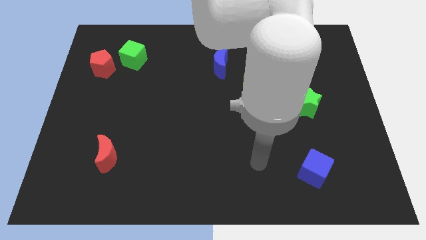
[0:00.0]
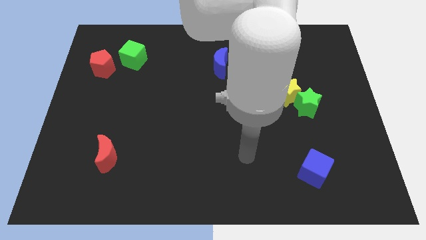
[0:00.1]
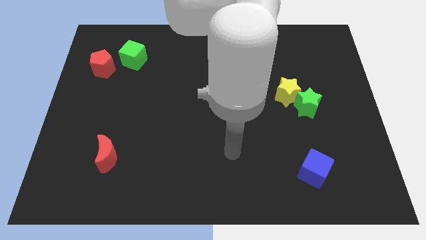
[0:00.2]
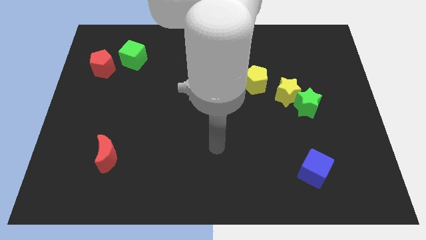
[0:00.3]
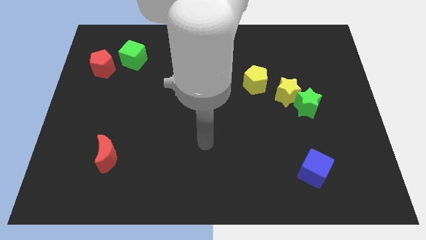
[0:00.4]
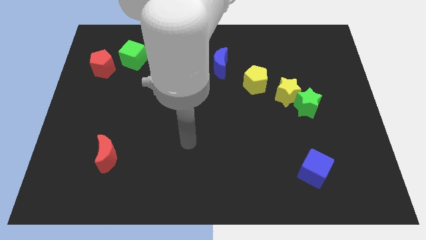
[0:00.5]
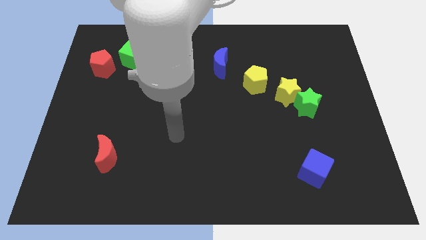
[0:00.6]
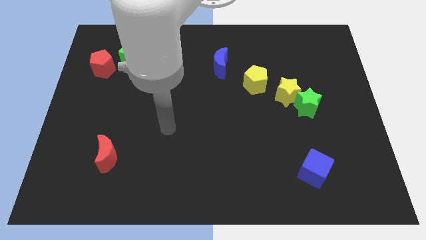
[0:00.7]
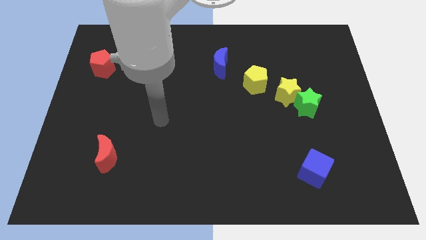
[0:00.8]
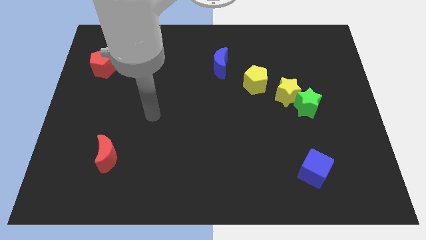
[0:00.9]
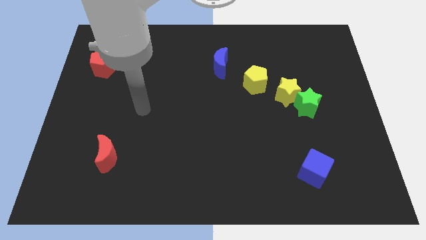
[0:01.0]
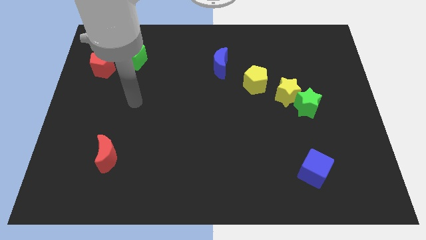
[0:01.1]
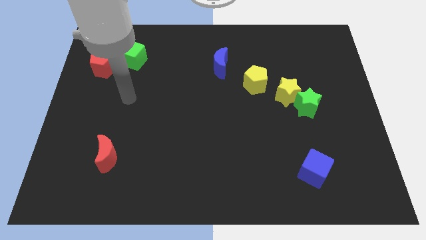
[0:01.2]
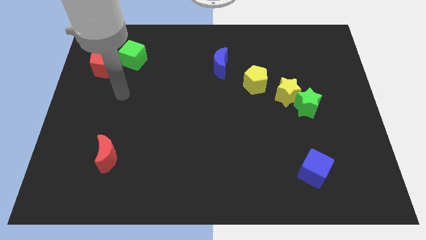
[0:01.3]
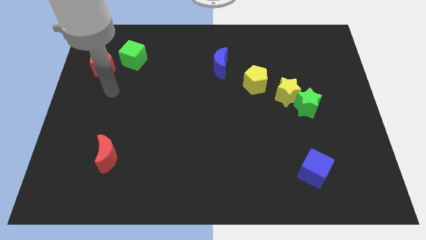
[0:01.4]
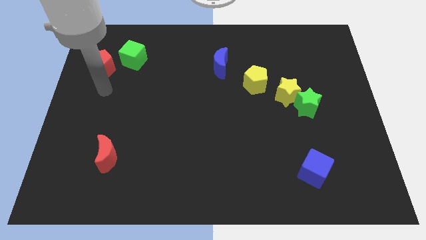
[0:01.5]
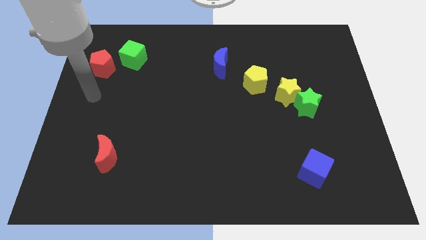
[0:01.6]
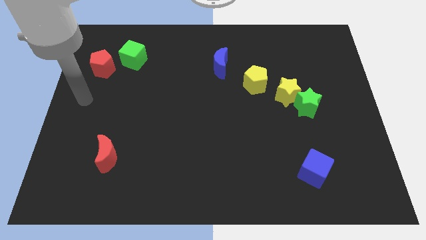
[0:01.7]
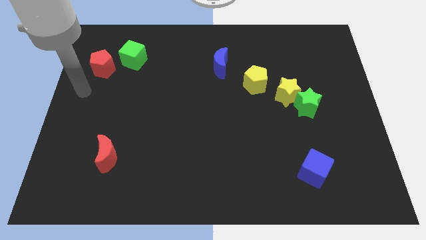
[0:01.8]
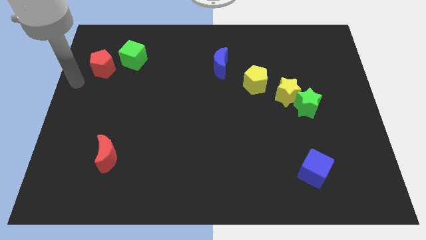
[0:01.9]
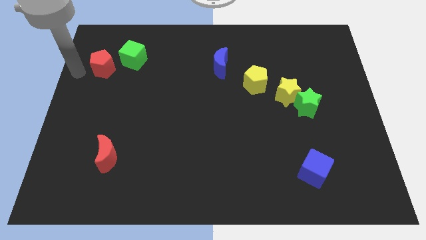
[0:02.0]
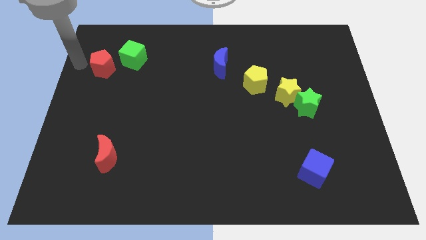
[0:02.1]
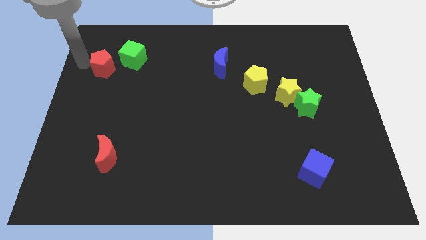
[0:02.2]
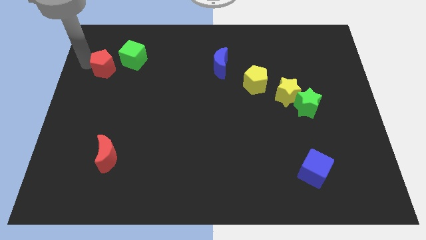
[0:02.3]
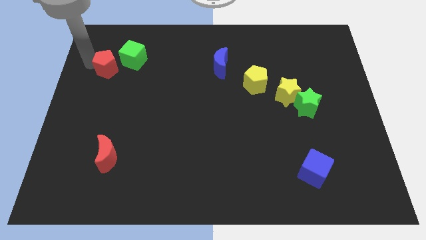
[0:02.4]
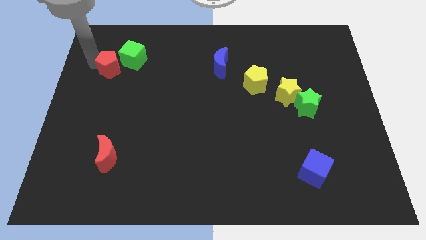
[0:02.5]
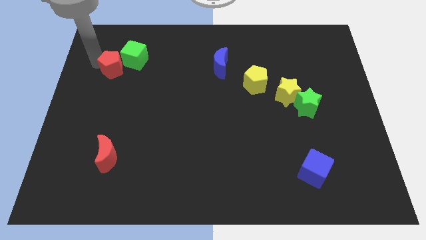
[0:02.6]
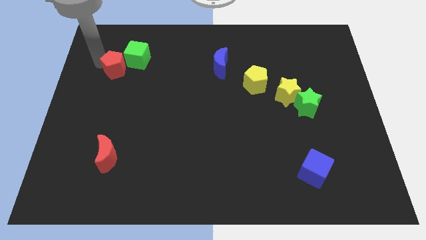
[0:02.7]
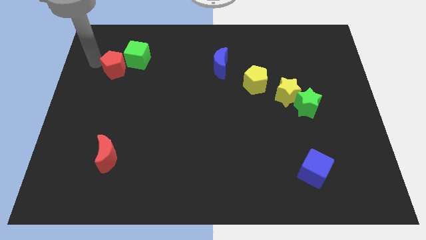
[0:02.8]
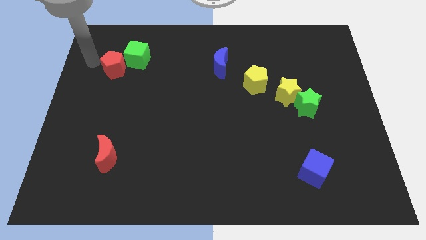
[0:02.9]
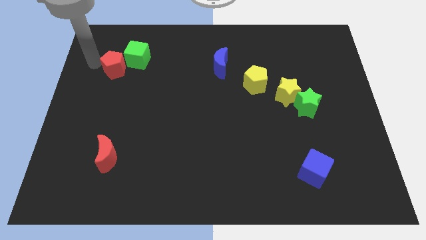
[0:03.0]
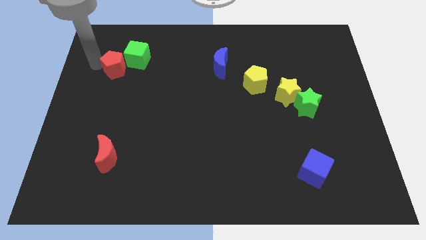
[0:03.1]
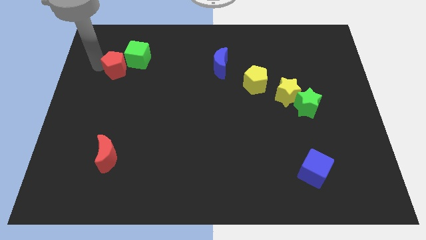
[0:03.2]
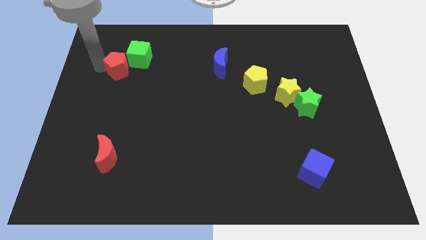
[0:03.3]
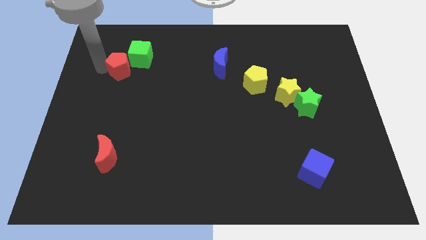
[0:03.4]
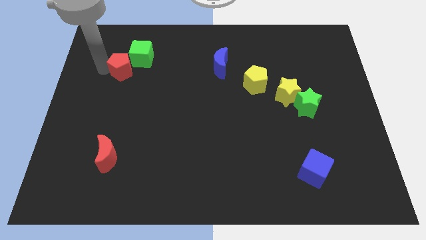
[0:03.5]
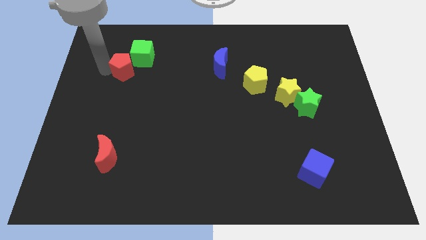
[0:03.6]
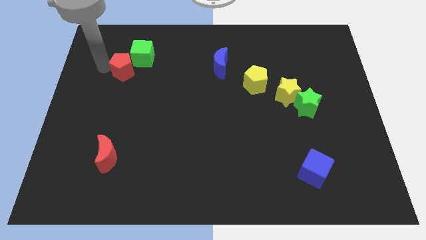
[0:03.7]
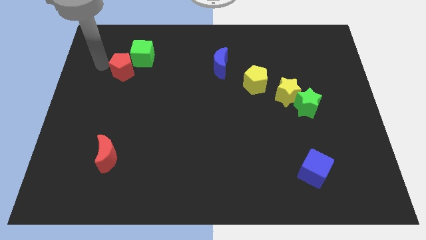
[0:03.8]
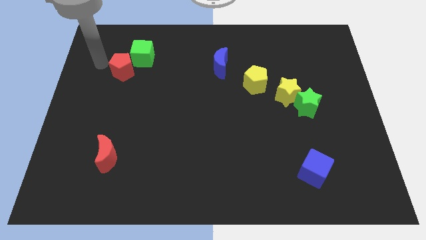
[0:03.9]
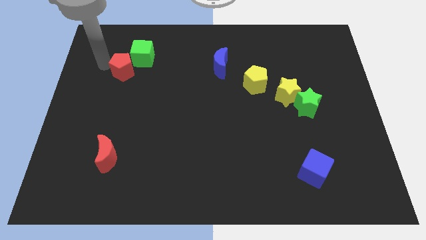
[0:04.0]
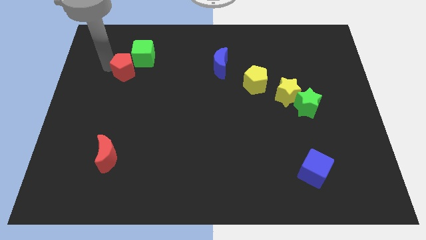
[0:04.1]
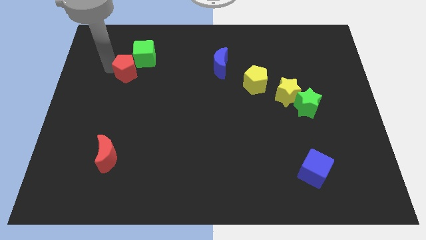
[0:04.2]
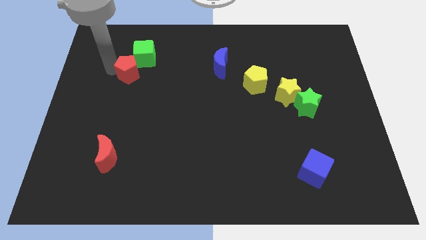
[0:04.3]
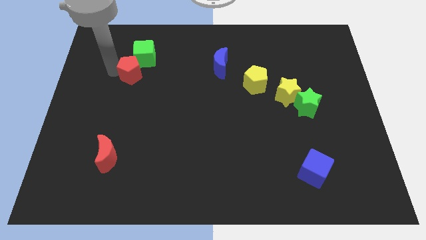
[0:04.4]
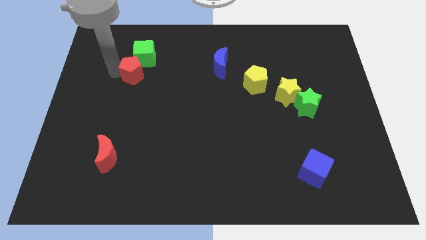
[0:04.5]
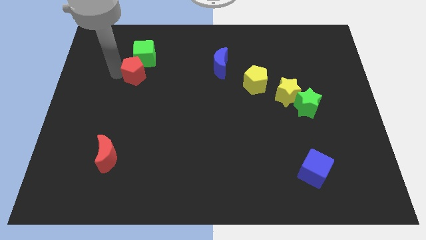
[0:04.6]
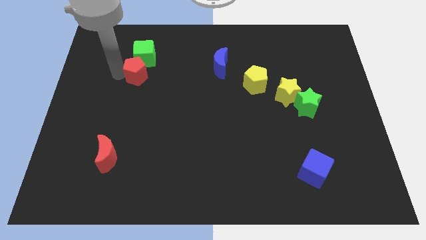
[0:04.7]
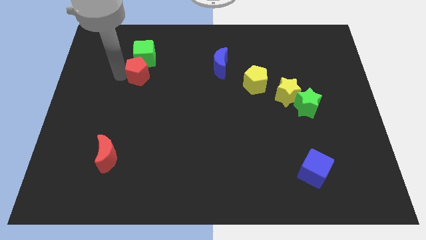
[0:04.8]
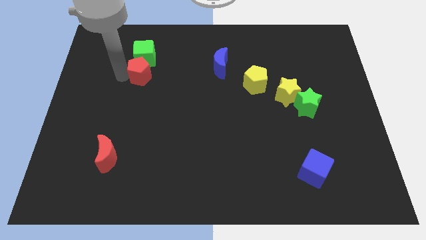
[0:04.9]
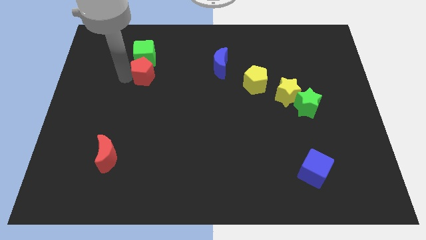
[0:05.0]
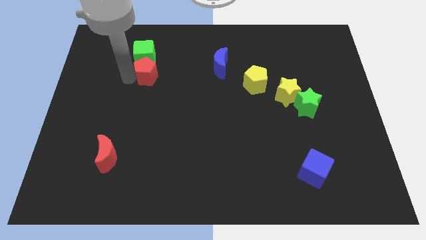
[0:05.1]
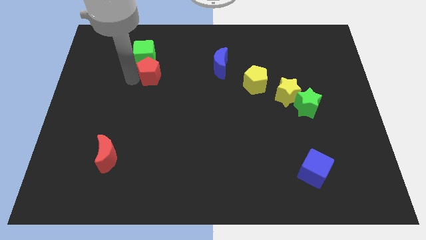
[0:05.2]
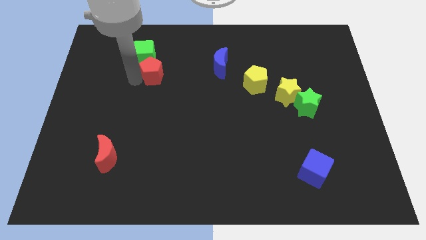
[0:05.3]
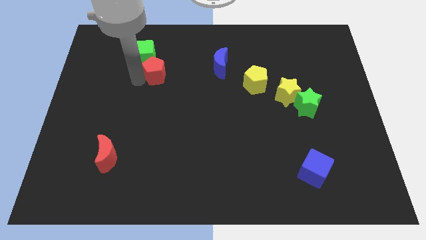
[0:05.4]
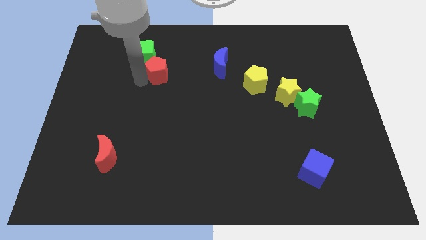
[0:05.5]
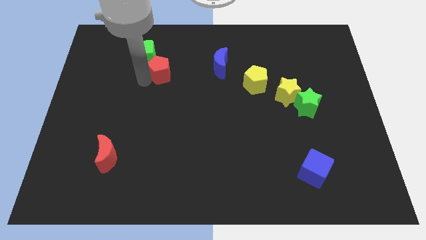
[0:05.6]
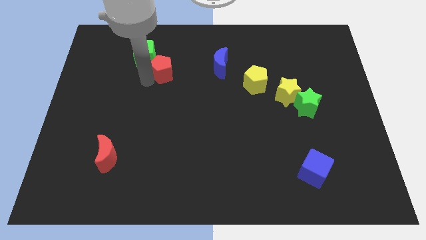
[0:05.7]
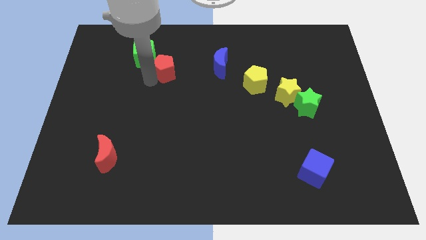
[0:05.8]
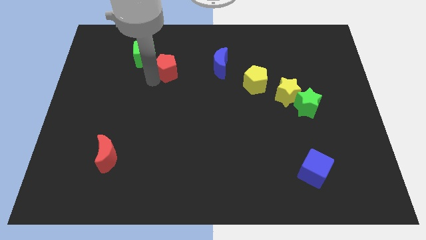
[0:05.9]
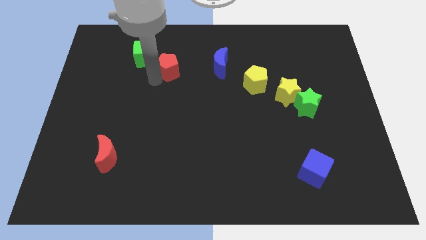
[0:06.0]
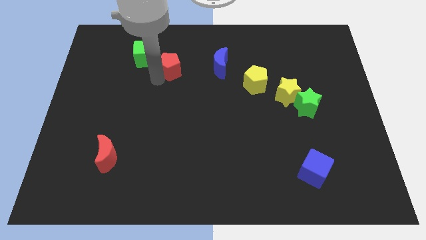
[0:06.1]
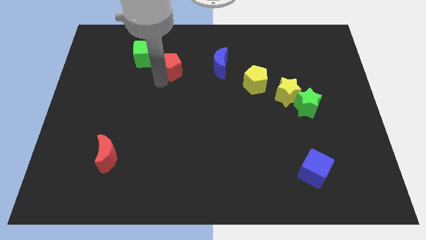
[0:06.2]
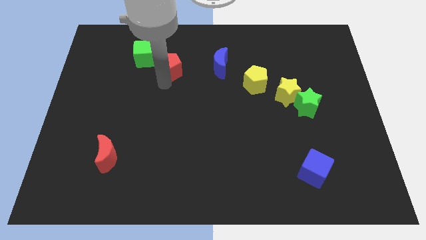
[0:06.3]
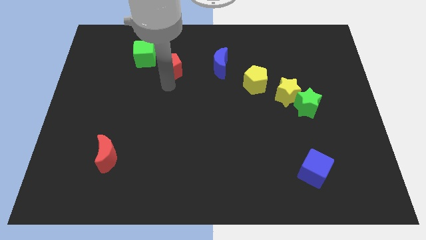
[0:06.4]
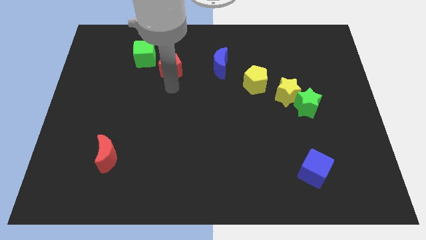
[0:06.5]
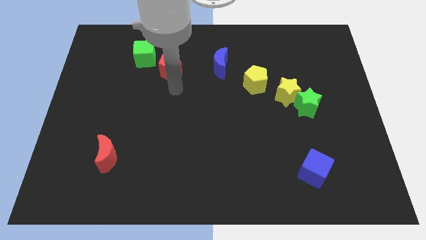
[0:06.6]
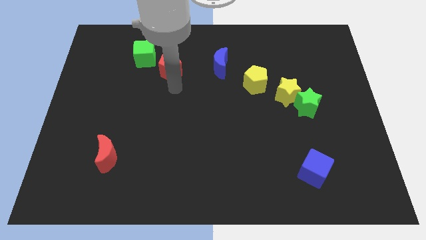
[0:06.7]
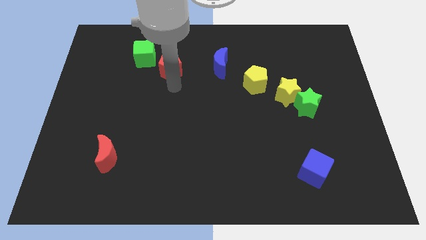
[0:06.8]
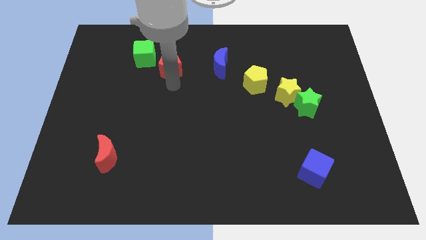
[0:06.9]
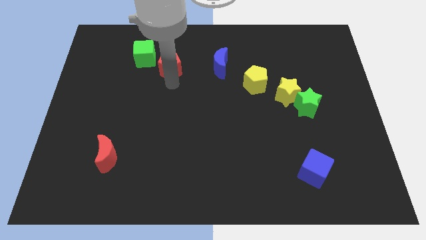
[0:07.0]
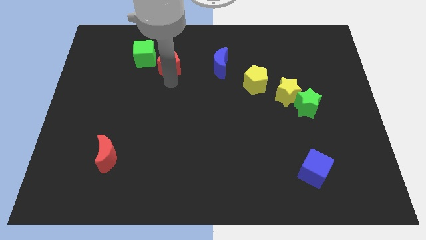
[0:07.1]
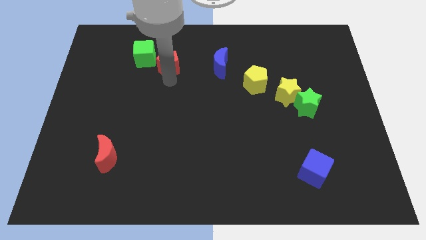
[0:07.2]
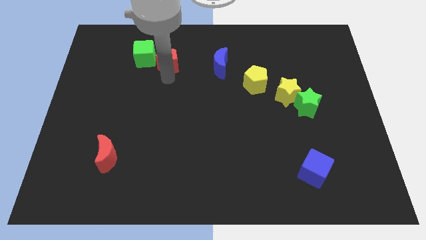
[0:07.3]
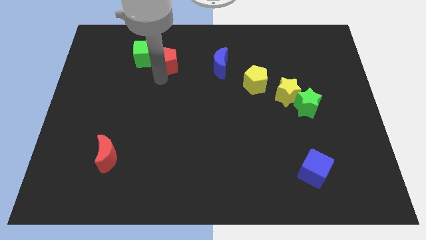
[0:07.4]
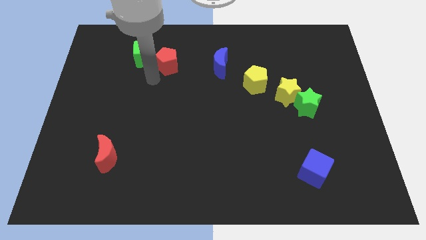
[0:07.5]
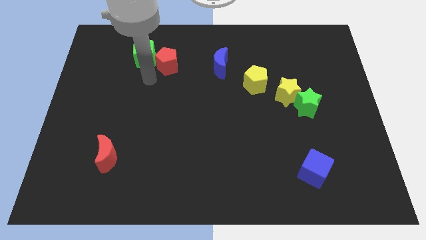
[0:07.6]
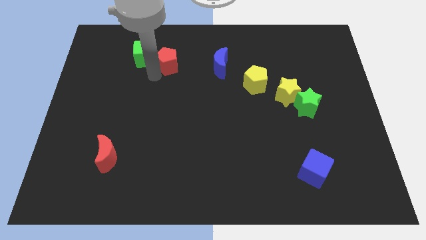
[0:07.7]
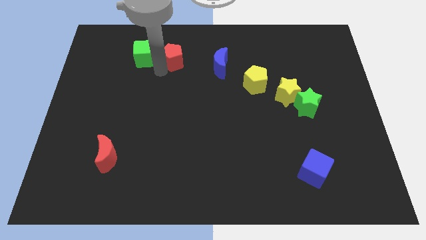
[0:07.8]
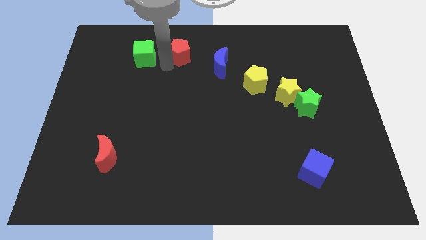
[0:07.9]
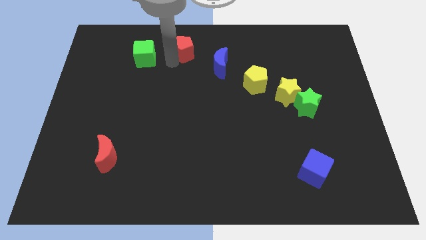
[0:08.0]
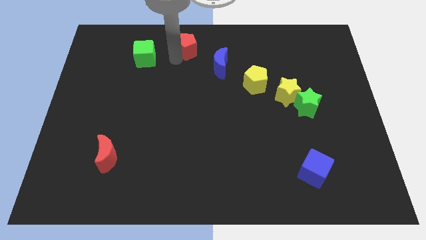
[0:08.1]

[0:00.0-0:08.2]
push the red pentagon to the towards your base
